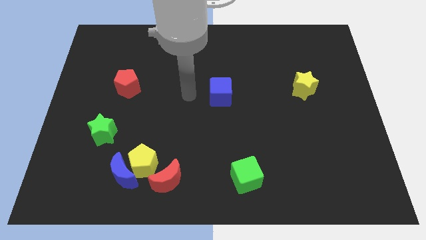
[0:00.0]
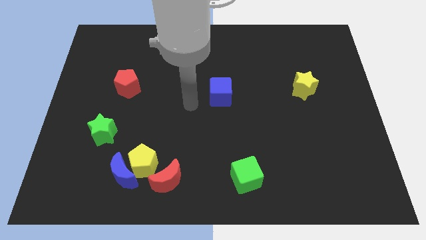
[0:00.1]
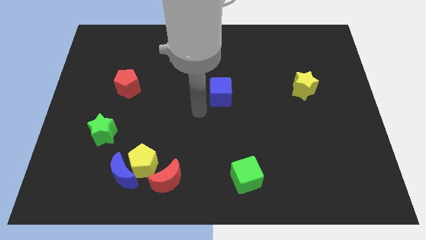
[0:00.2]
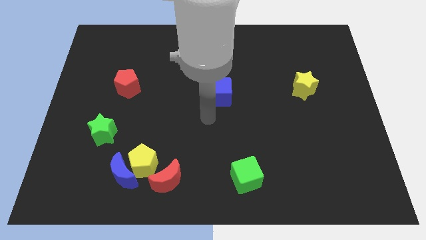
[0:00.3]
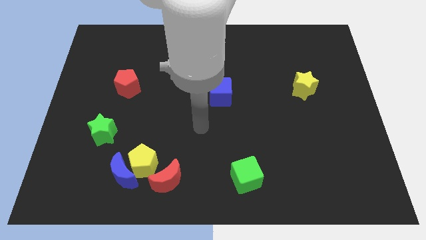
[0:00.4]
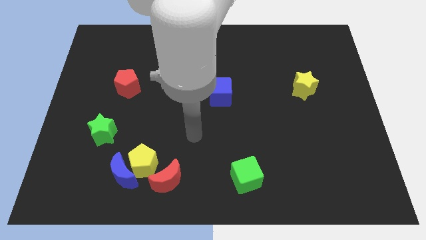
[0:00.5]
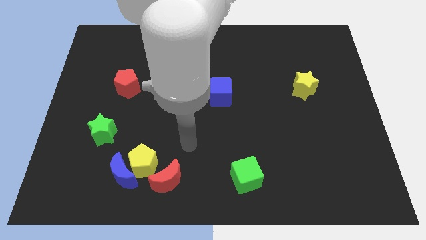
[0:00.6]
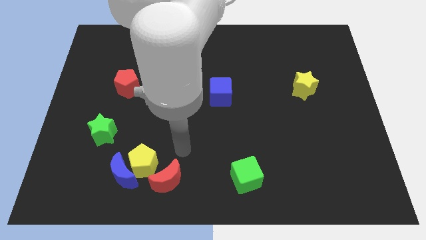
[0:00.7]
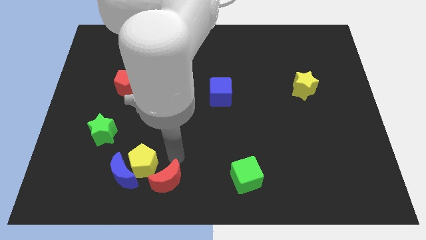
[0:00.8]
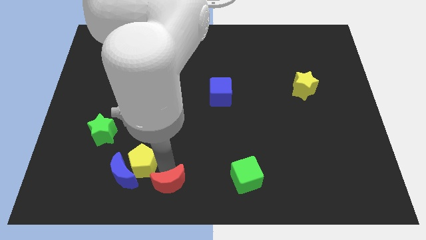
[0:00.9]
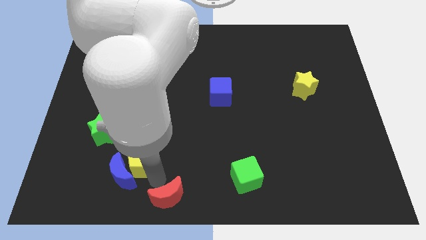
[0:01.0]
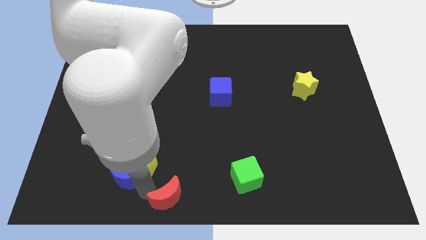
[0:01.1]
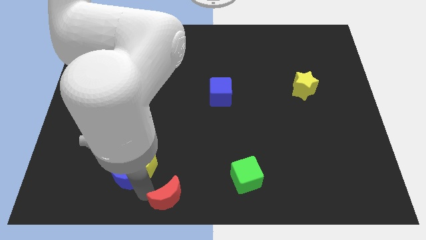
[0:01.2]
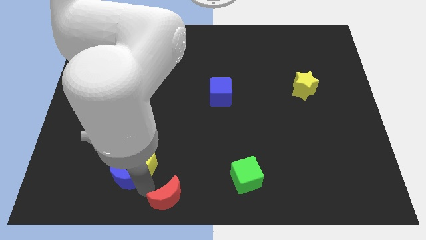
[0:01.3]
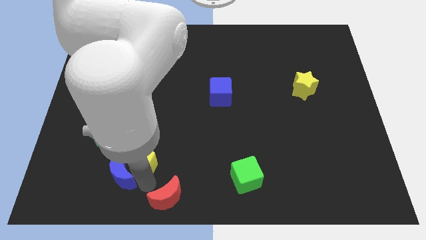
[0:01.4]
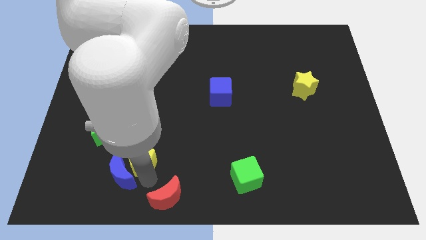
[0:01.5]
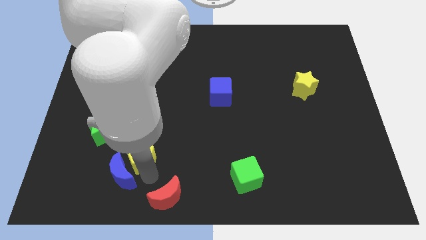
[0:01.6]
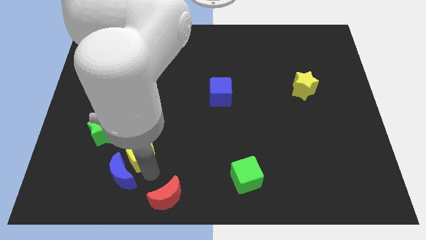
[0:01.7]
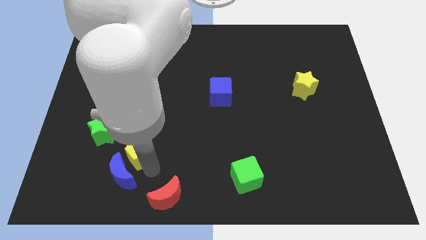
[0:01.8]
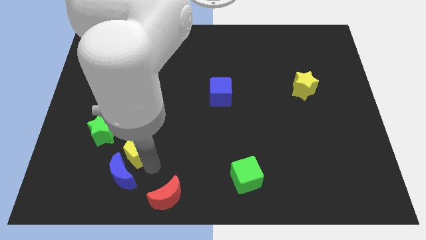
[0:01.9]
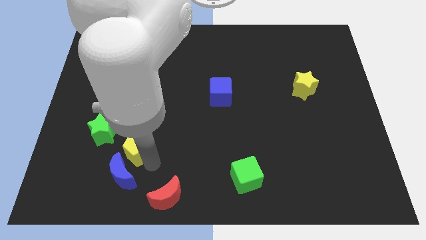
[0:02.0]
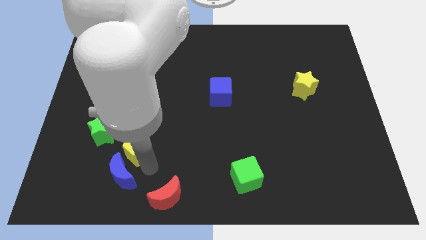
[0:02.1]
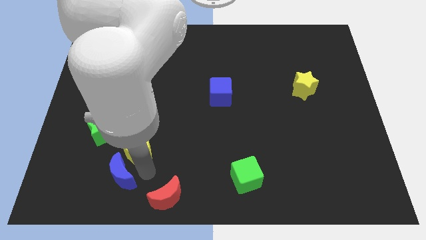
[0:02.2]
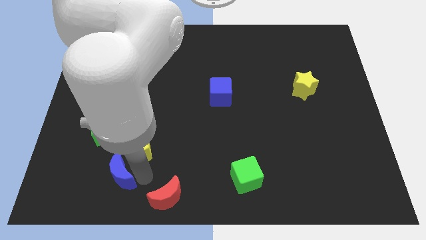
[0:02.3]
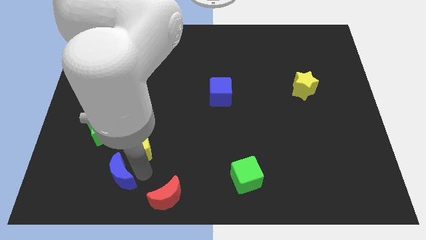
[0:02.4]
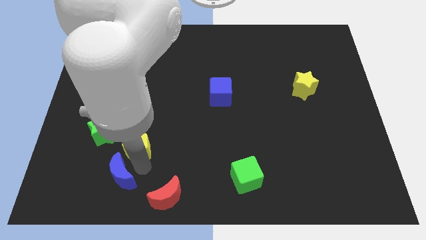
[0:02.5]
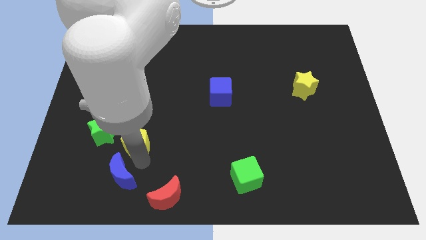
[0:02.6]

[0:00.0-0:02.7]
pull the yellow pentagon apart from the blue moon and red moon

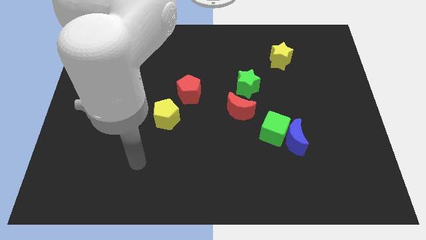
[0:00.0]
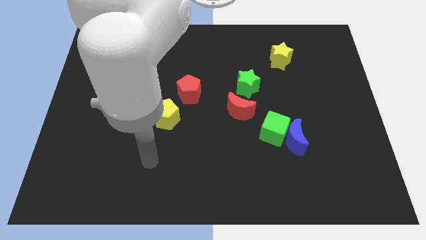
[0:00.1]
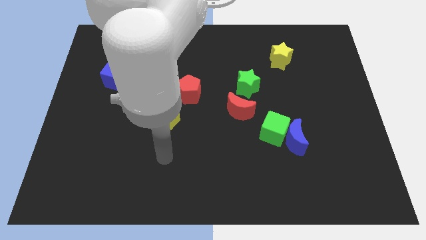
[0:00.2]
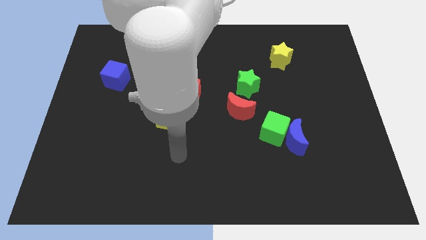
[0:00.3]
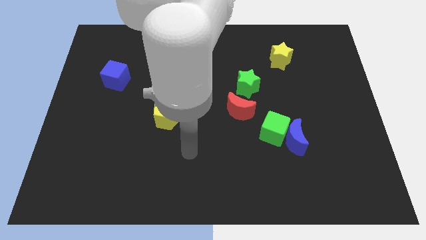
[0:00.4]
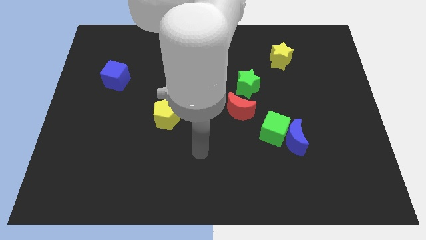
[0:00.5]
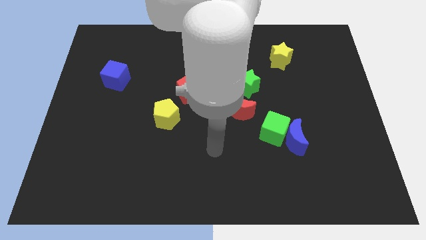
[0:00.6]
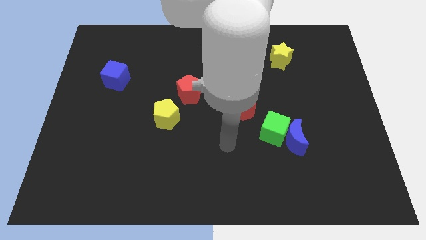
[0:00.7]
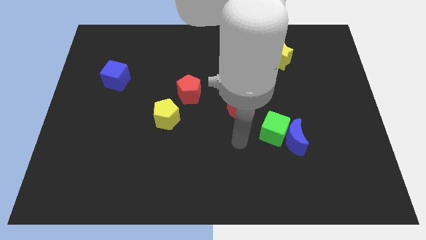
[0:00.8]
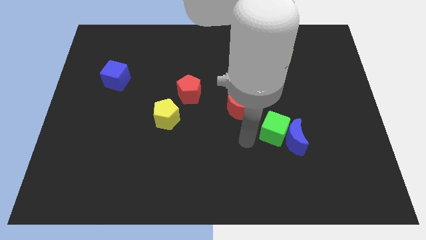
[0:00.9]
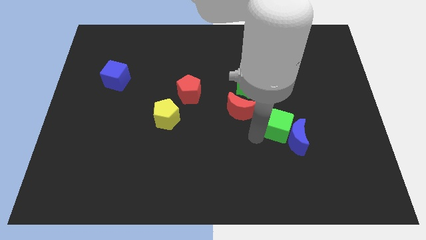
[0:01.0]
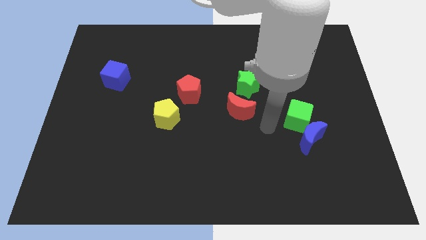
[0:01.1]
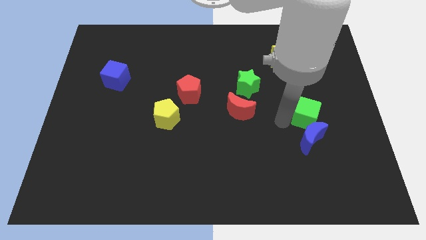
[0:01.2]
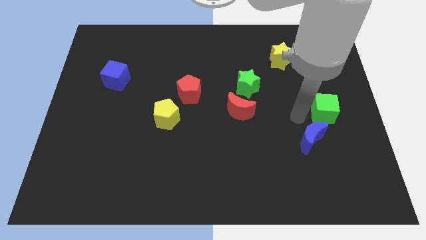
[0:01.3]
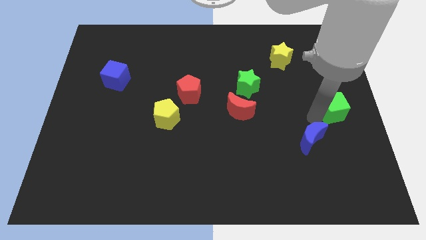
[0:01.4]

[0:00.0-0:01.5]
pull the blue moon apart from the green cube

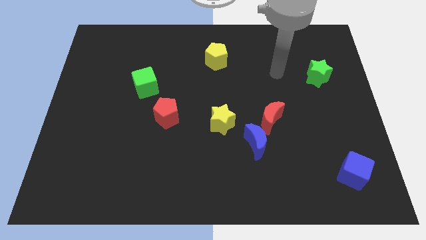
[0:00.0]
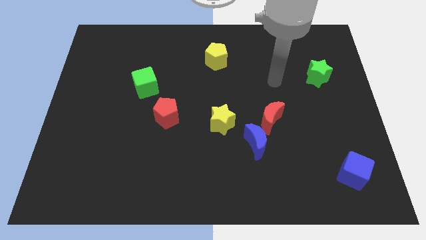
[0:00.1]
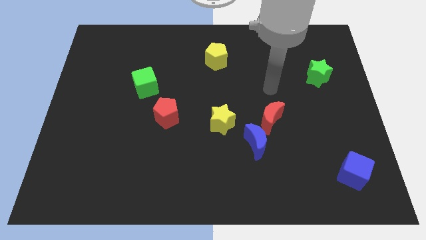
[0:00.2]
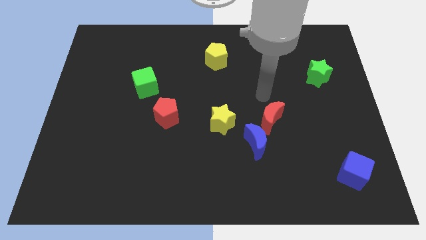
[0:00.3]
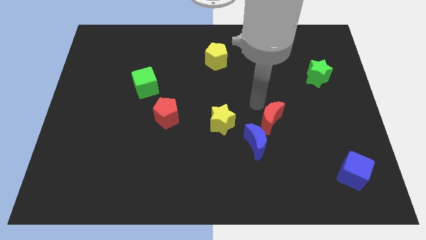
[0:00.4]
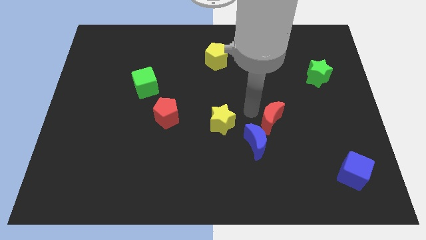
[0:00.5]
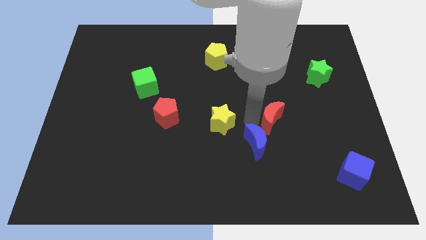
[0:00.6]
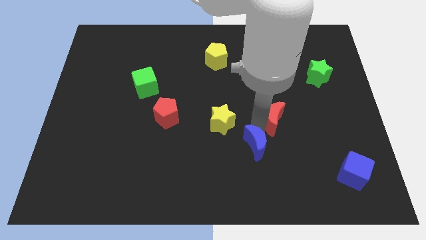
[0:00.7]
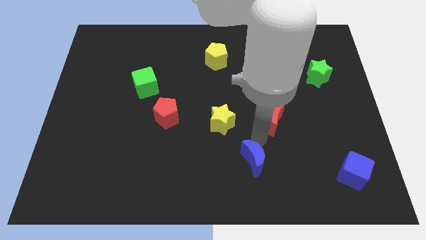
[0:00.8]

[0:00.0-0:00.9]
separate the red moon from the blue moon

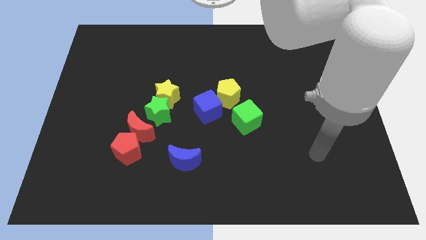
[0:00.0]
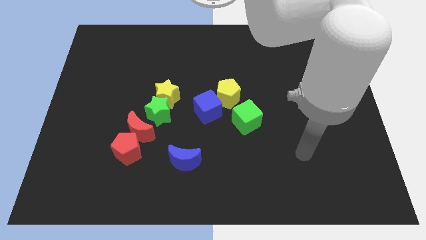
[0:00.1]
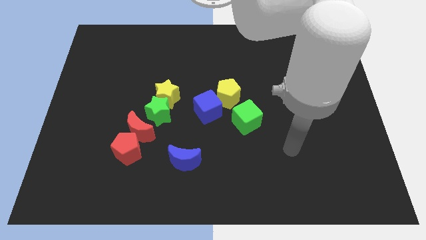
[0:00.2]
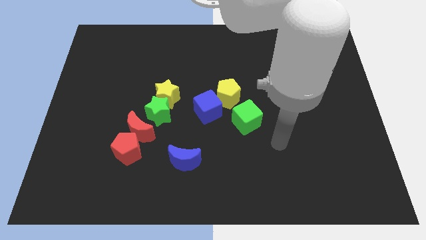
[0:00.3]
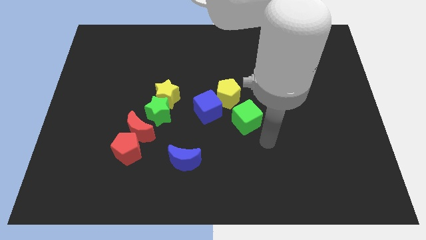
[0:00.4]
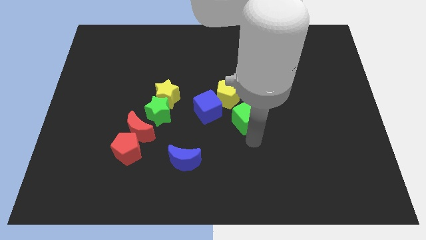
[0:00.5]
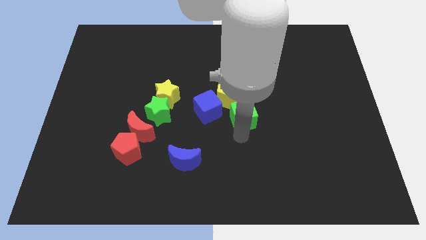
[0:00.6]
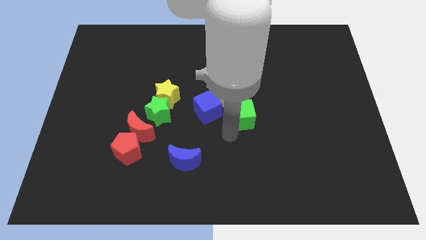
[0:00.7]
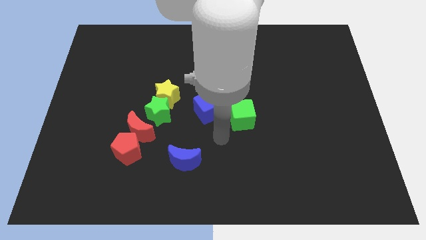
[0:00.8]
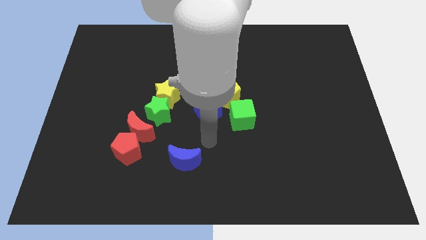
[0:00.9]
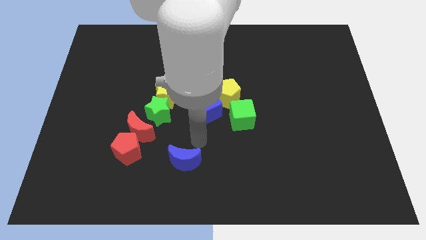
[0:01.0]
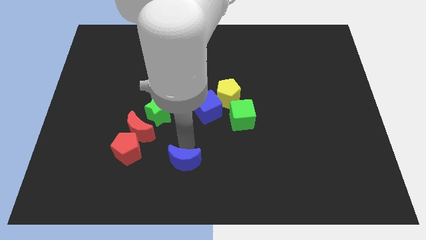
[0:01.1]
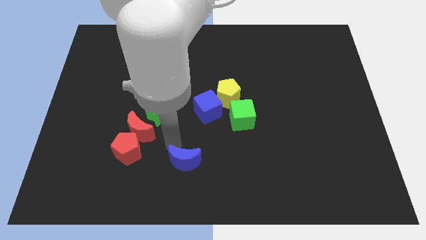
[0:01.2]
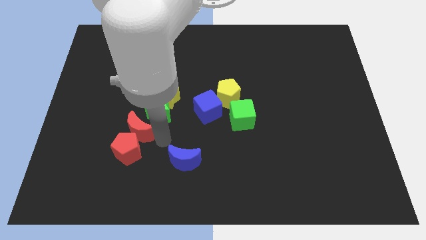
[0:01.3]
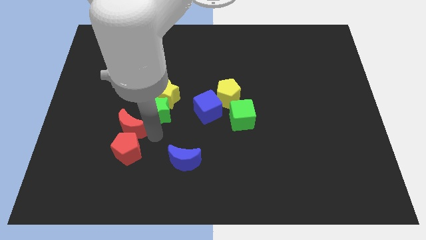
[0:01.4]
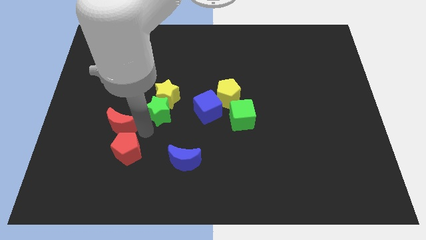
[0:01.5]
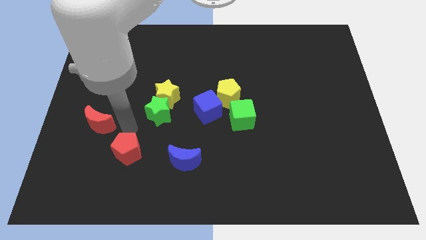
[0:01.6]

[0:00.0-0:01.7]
pull the red pentagon apart from the red moon

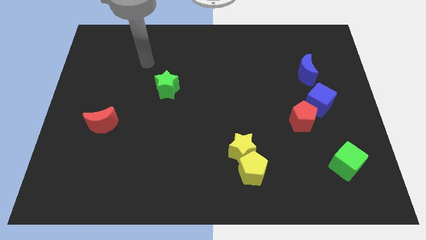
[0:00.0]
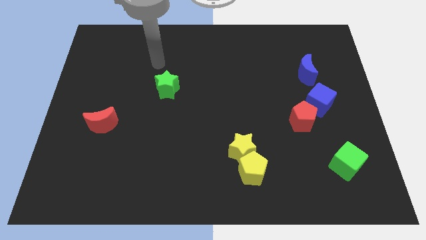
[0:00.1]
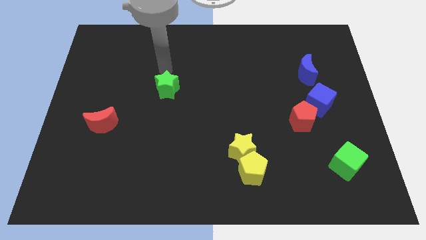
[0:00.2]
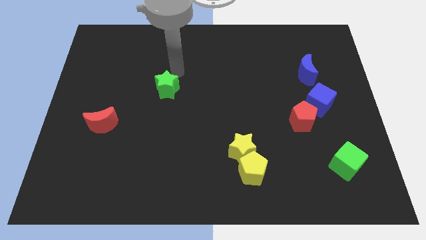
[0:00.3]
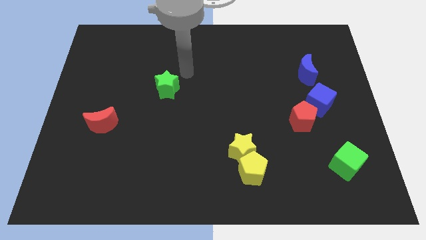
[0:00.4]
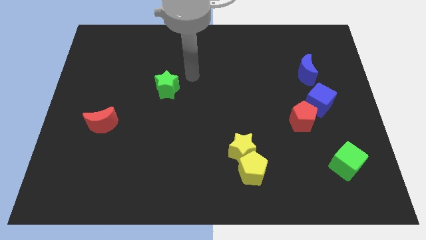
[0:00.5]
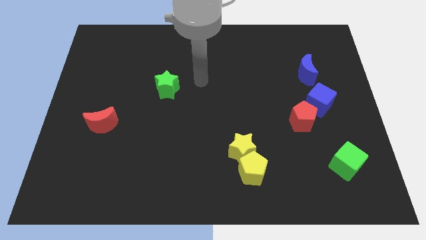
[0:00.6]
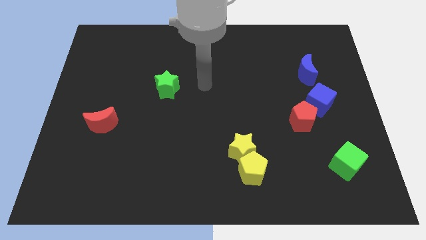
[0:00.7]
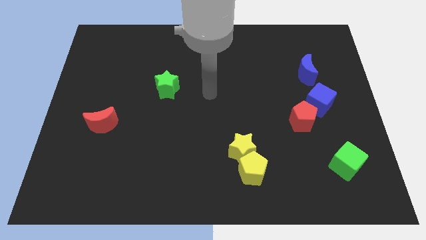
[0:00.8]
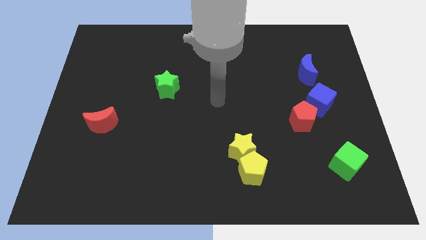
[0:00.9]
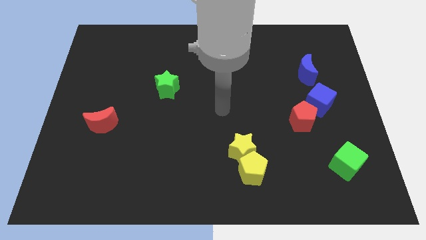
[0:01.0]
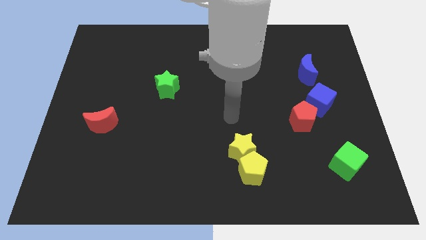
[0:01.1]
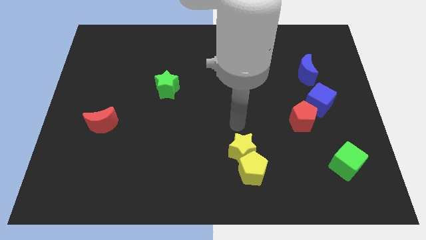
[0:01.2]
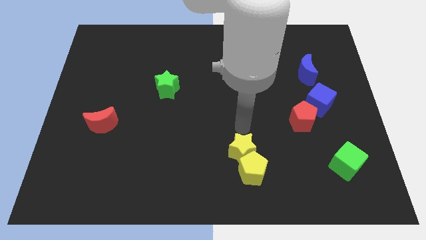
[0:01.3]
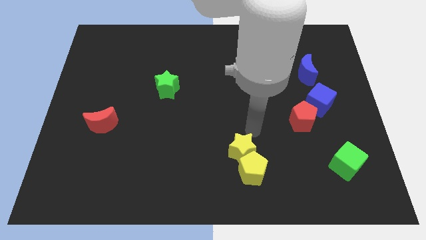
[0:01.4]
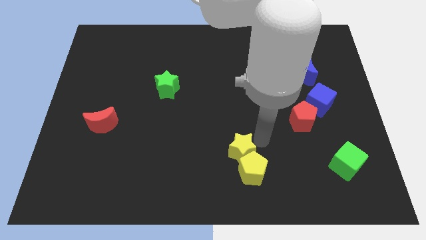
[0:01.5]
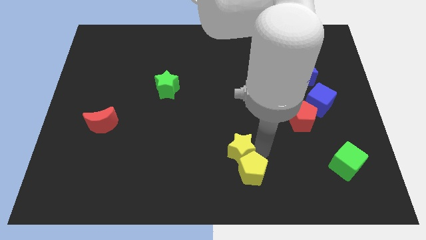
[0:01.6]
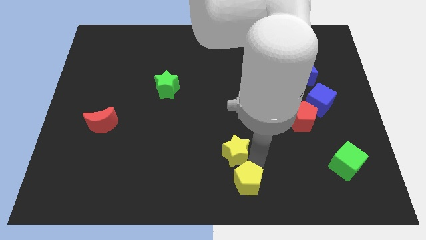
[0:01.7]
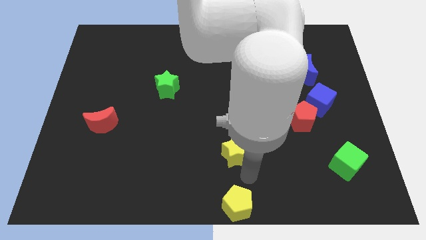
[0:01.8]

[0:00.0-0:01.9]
separate the yellow star from the yellow pentagon

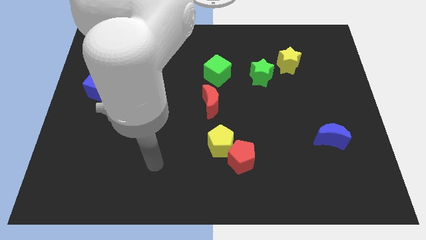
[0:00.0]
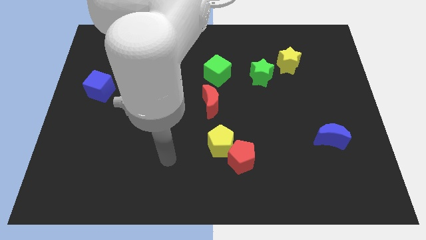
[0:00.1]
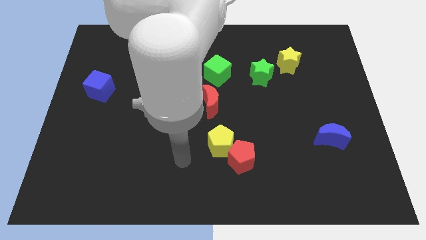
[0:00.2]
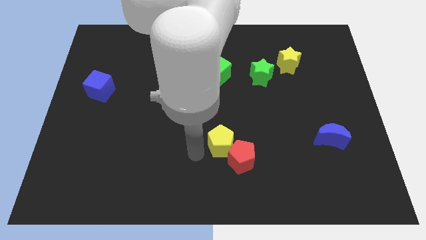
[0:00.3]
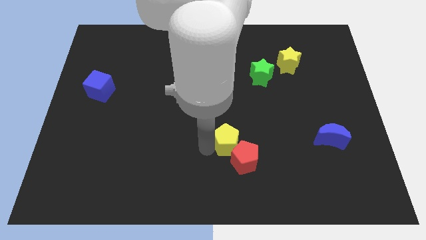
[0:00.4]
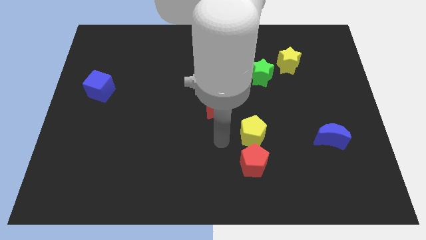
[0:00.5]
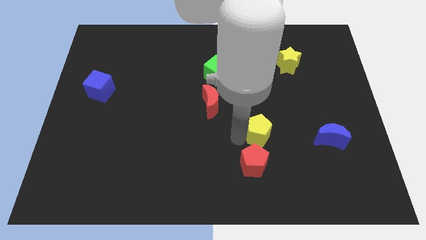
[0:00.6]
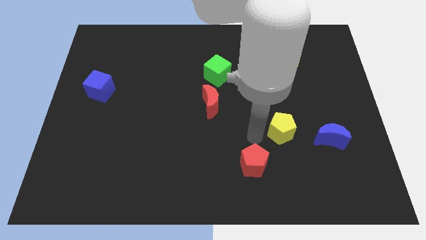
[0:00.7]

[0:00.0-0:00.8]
pull the red pentagon apart from the yellow pentagon
